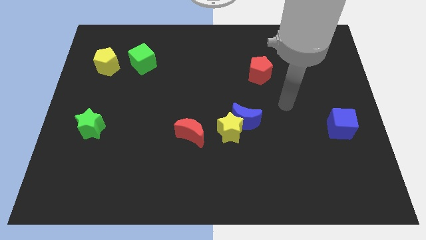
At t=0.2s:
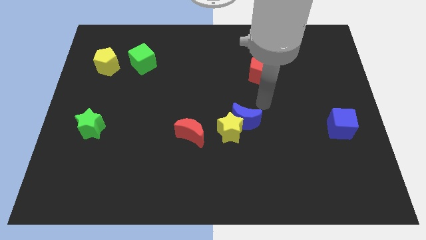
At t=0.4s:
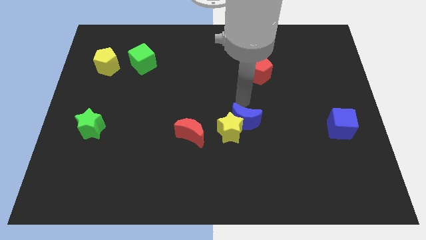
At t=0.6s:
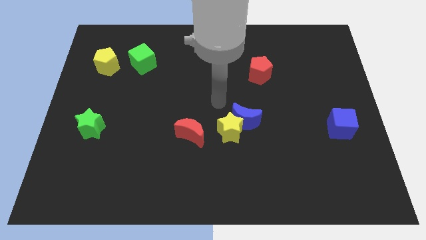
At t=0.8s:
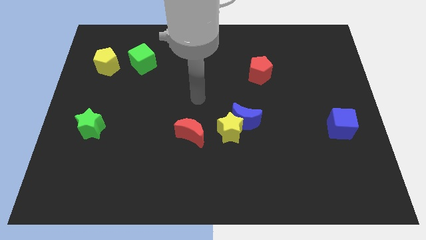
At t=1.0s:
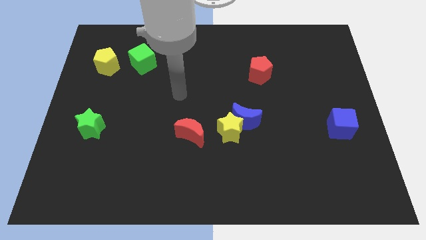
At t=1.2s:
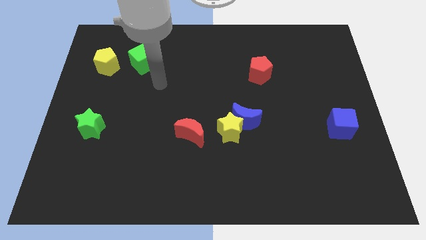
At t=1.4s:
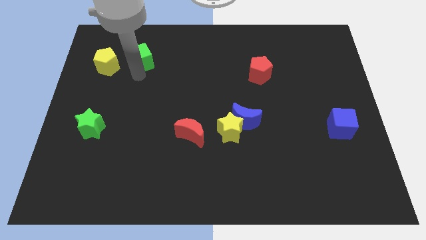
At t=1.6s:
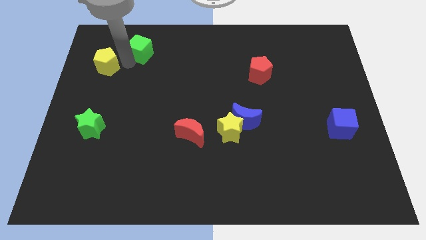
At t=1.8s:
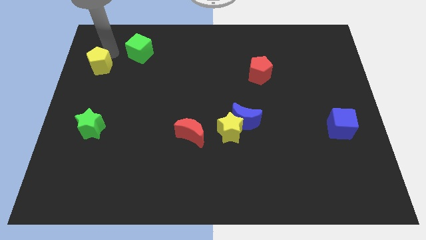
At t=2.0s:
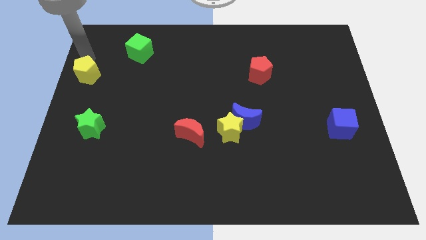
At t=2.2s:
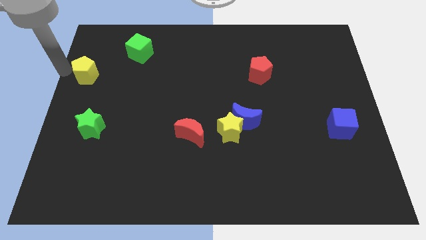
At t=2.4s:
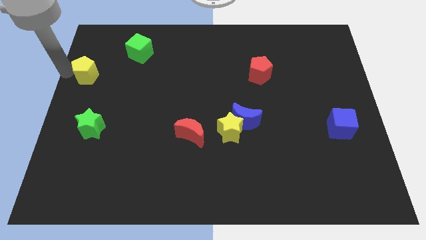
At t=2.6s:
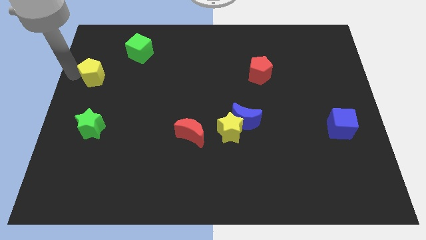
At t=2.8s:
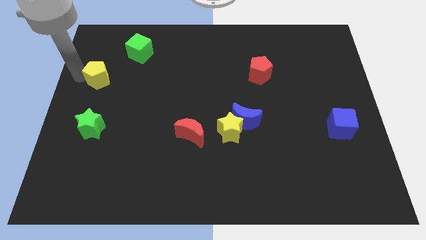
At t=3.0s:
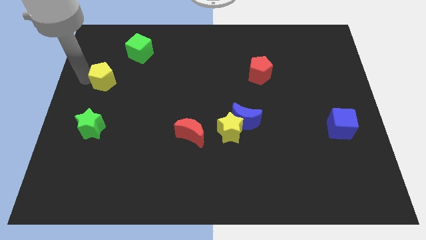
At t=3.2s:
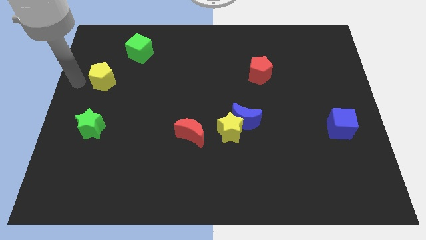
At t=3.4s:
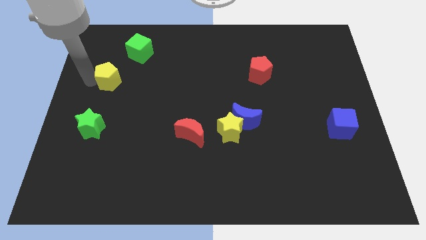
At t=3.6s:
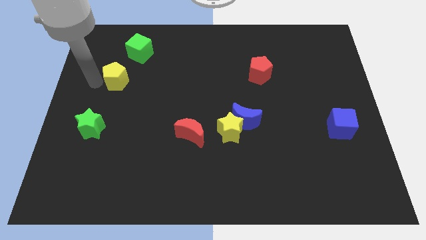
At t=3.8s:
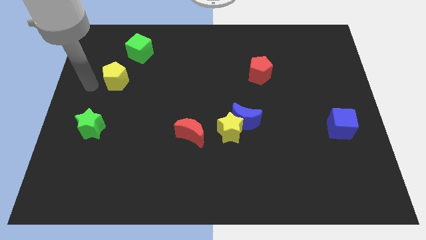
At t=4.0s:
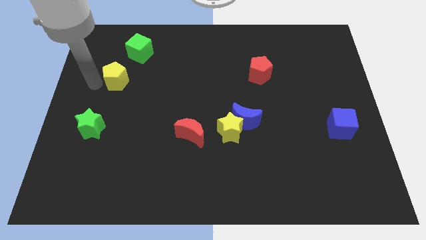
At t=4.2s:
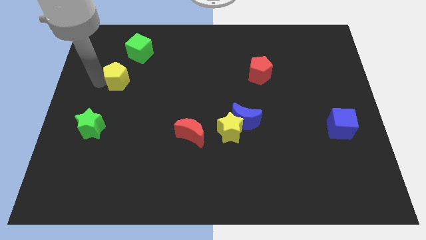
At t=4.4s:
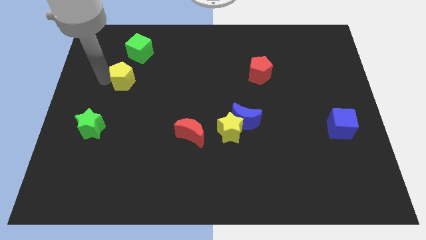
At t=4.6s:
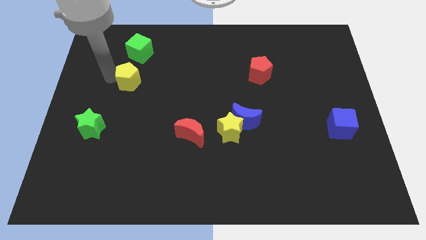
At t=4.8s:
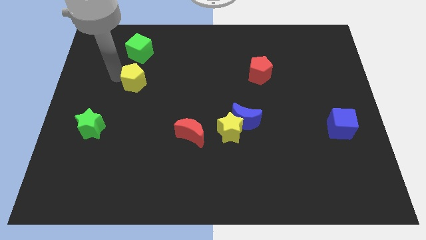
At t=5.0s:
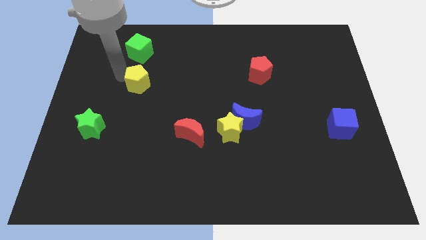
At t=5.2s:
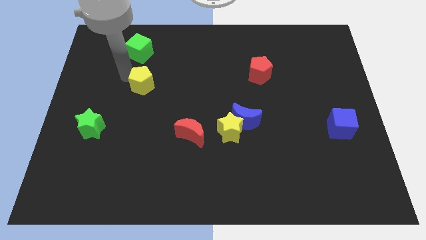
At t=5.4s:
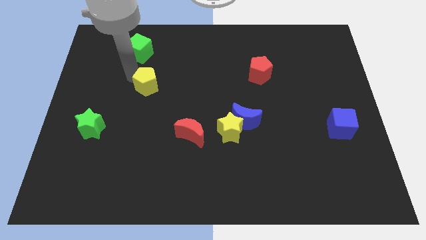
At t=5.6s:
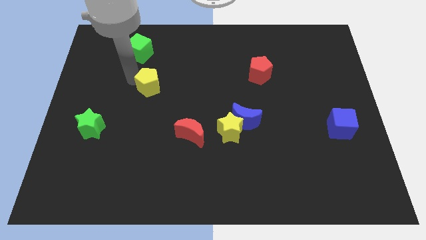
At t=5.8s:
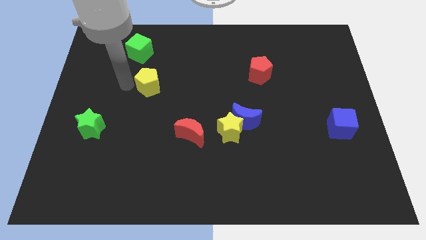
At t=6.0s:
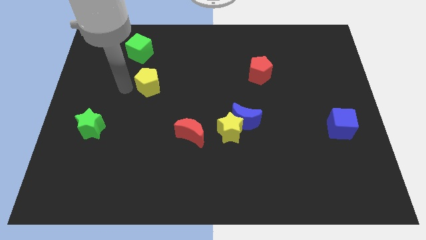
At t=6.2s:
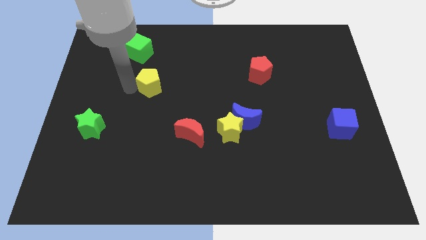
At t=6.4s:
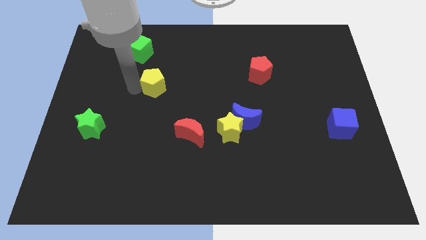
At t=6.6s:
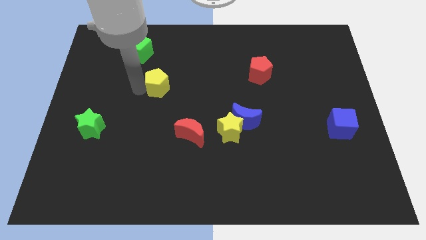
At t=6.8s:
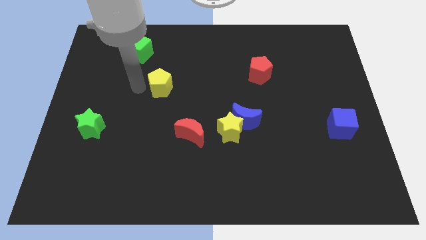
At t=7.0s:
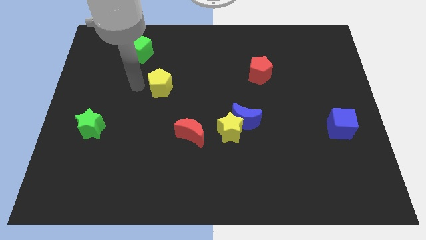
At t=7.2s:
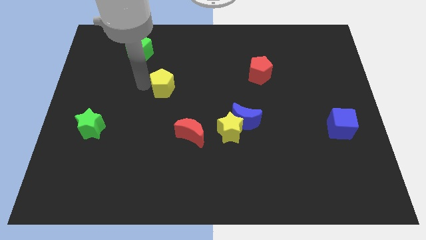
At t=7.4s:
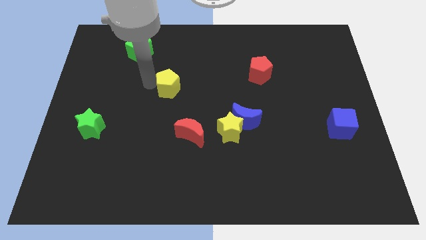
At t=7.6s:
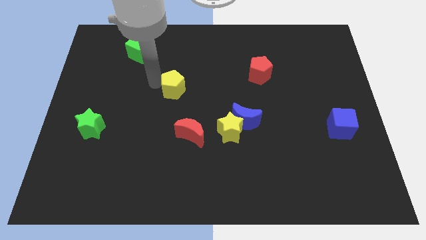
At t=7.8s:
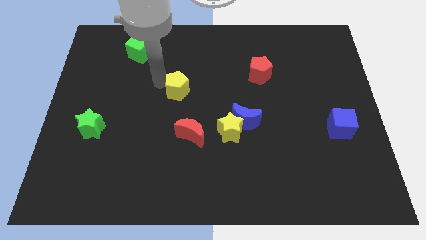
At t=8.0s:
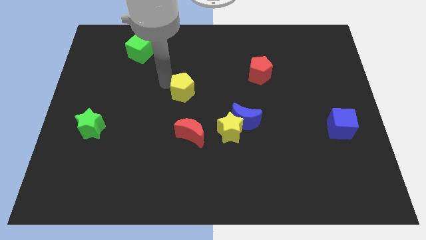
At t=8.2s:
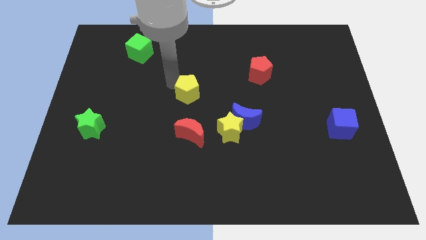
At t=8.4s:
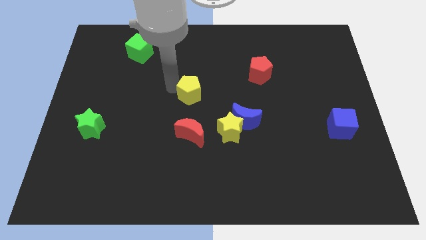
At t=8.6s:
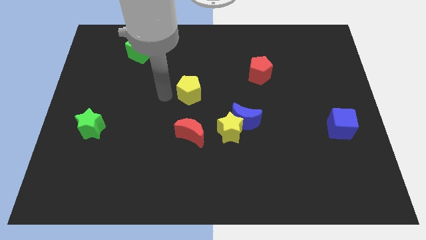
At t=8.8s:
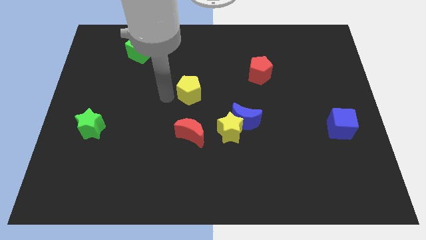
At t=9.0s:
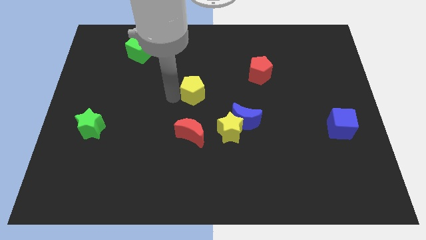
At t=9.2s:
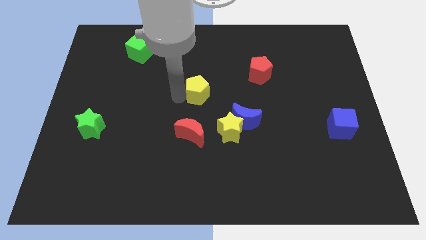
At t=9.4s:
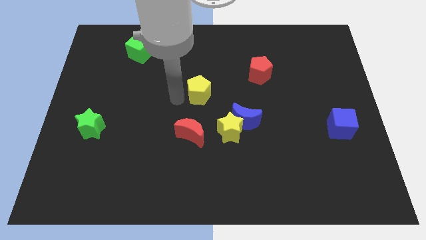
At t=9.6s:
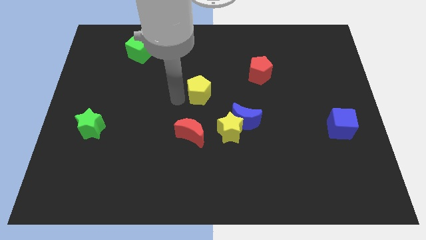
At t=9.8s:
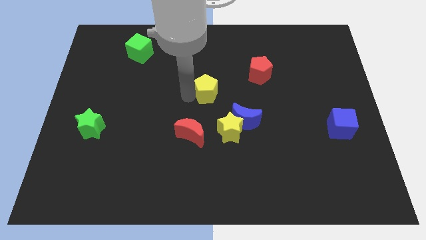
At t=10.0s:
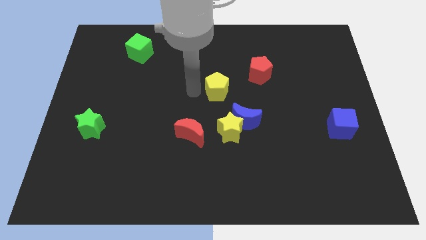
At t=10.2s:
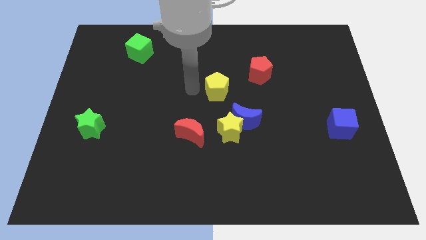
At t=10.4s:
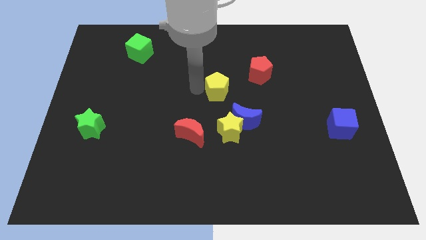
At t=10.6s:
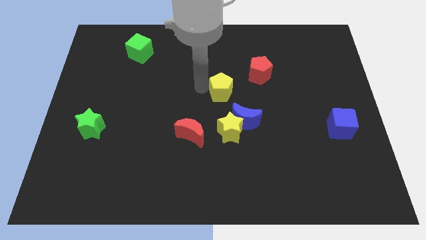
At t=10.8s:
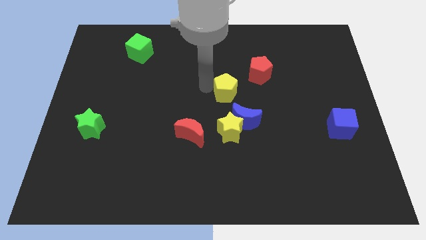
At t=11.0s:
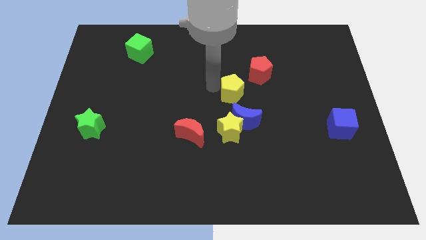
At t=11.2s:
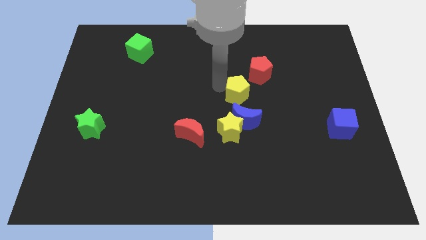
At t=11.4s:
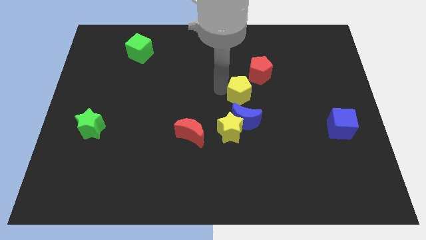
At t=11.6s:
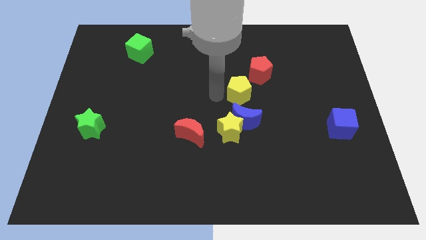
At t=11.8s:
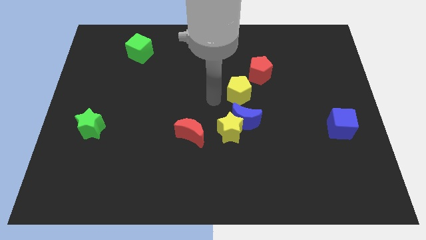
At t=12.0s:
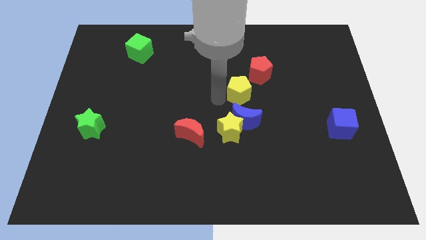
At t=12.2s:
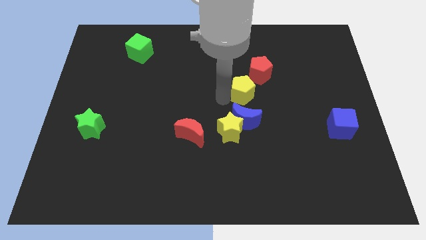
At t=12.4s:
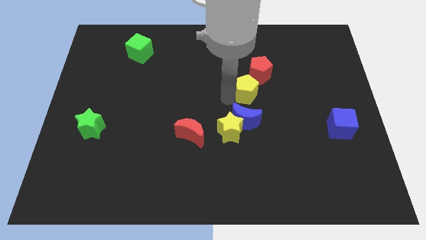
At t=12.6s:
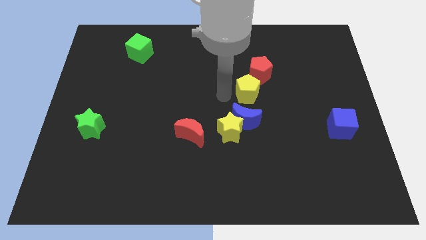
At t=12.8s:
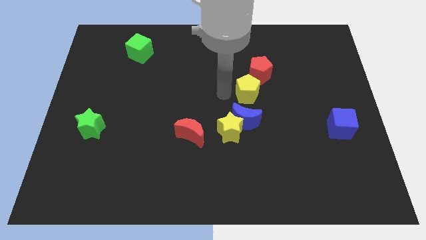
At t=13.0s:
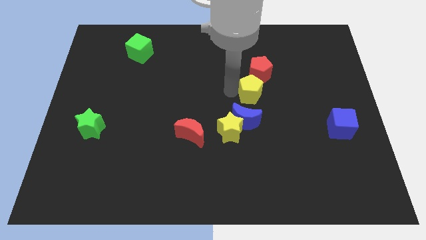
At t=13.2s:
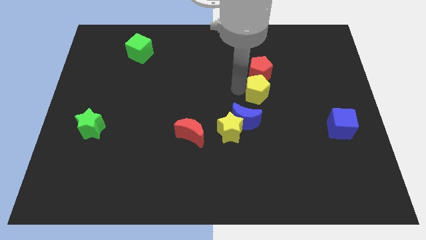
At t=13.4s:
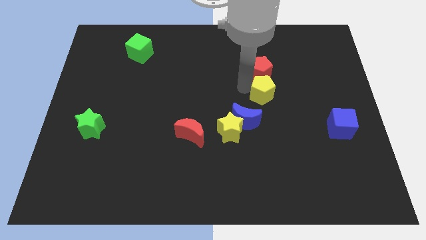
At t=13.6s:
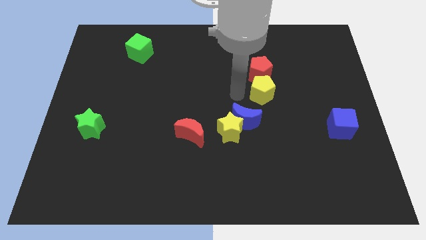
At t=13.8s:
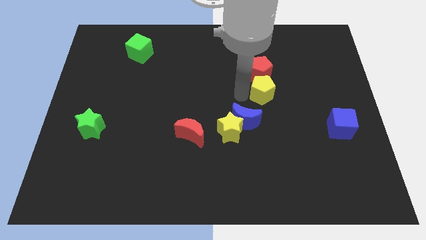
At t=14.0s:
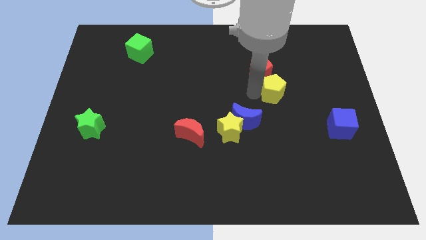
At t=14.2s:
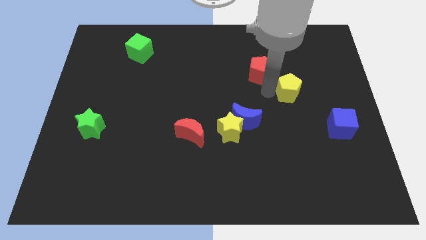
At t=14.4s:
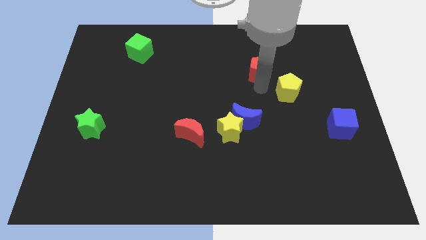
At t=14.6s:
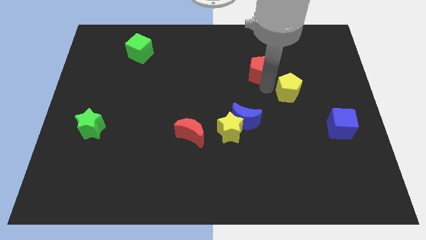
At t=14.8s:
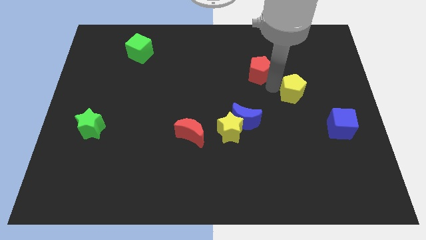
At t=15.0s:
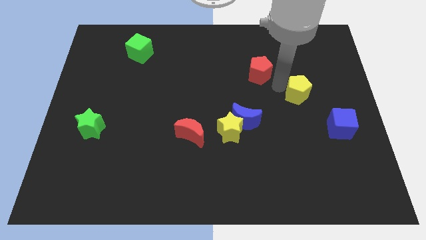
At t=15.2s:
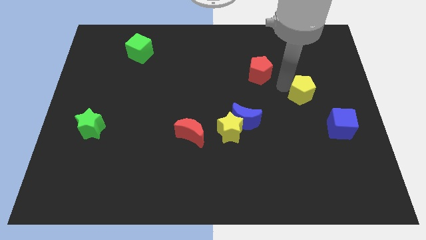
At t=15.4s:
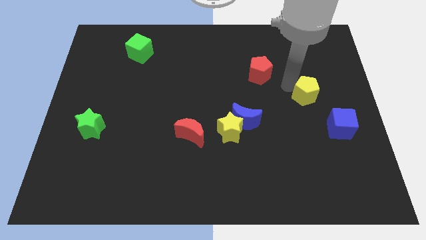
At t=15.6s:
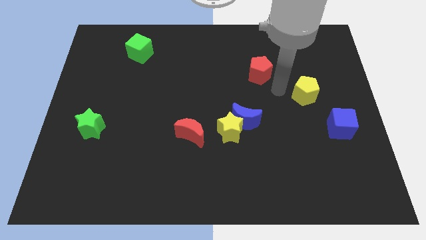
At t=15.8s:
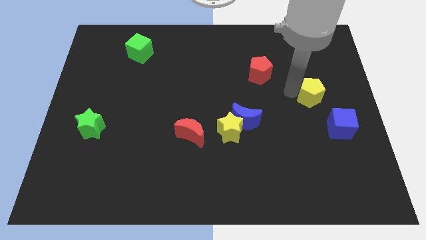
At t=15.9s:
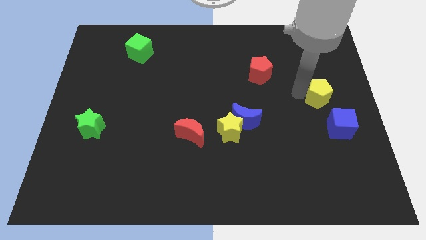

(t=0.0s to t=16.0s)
push the yellow pentagon to the center right
